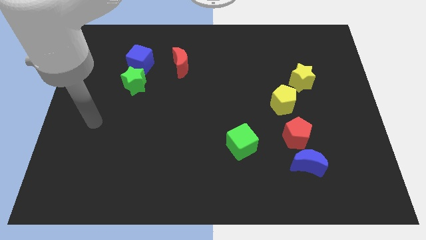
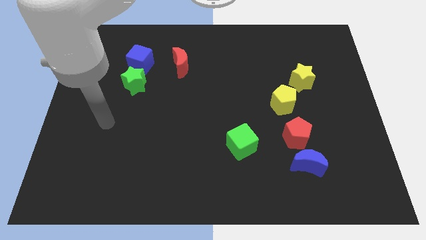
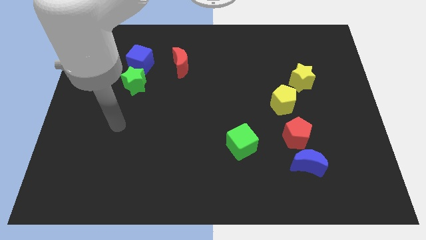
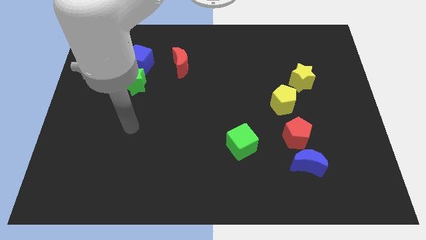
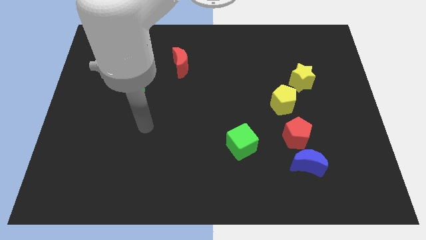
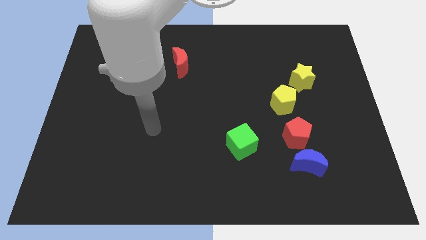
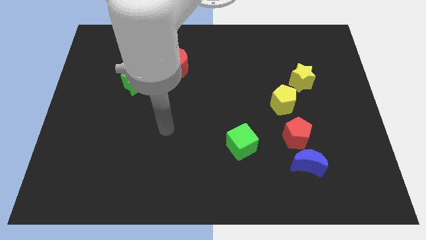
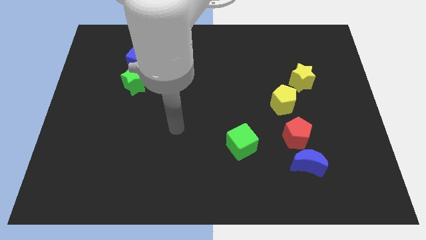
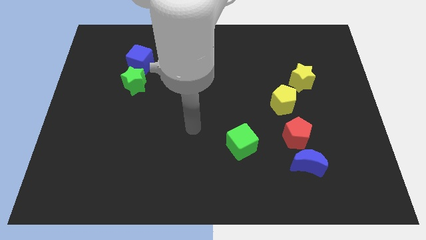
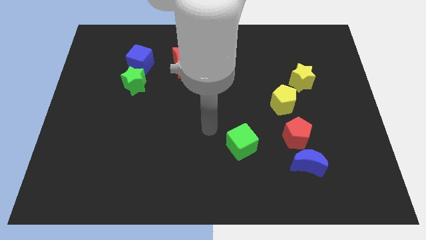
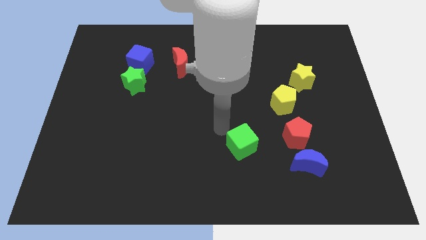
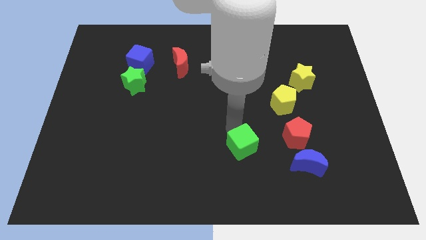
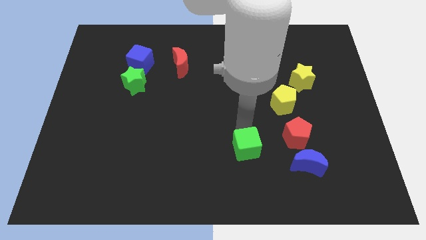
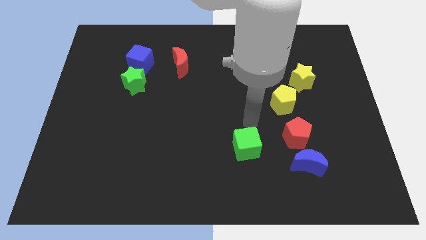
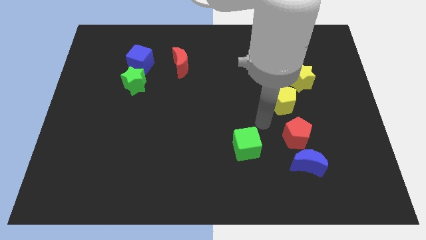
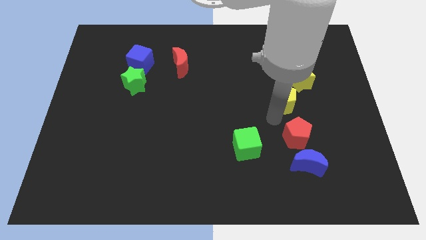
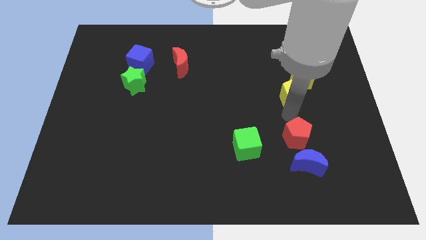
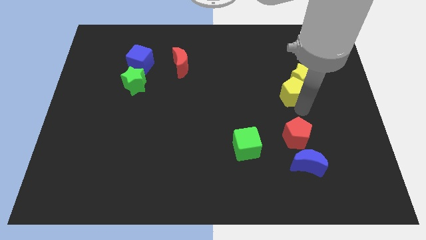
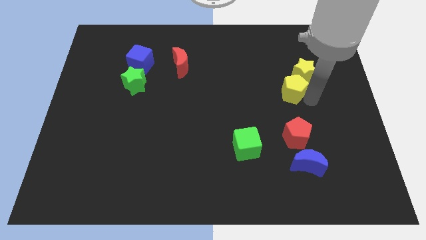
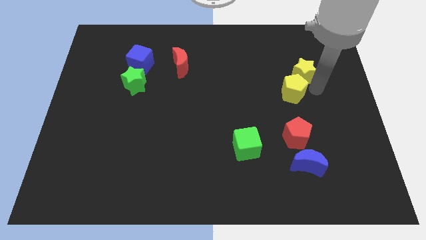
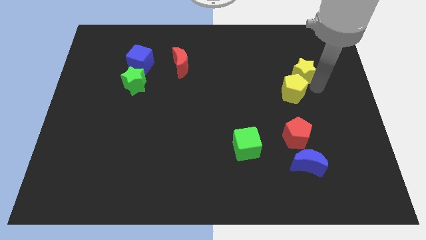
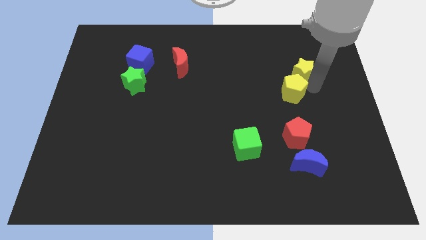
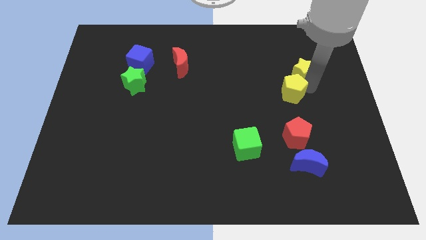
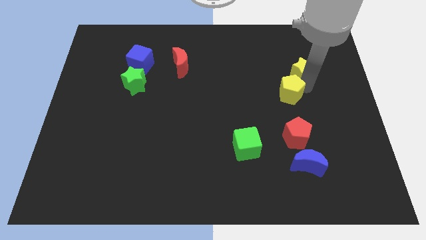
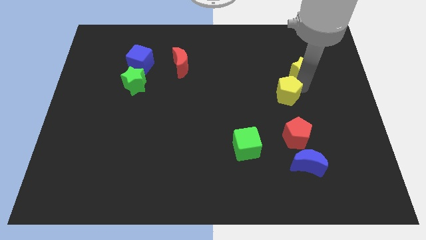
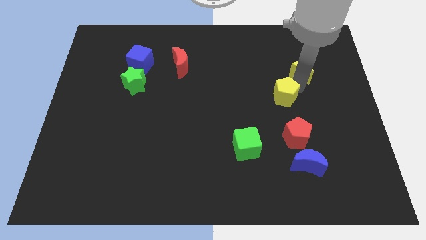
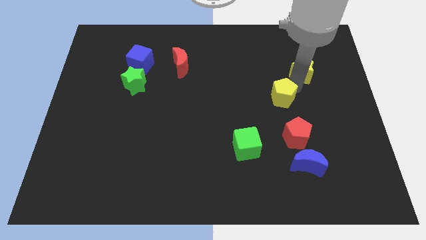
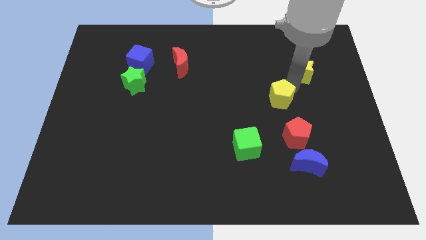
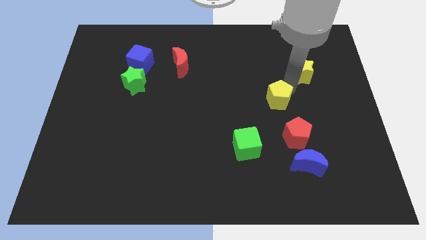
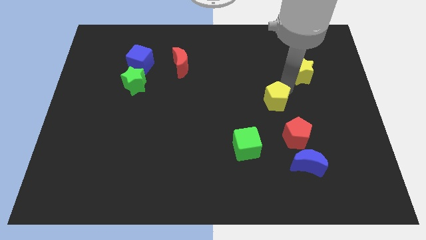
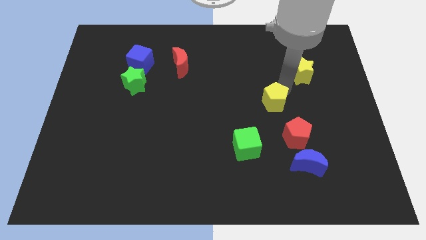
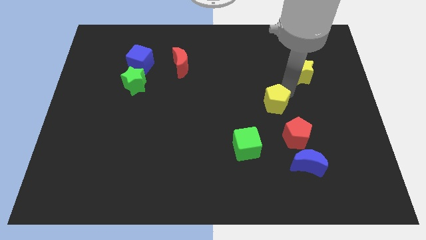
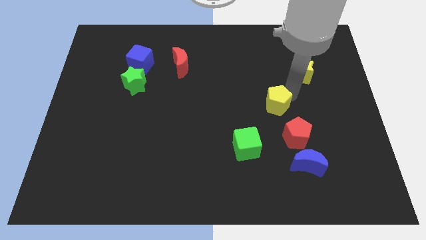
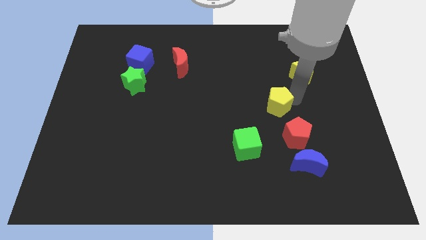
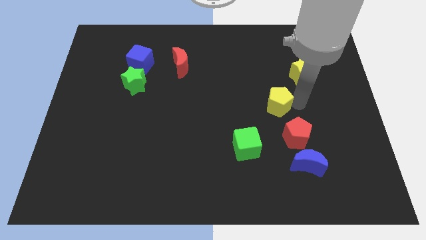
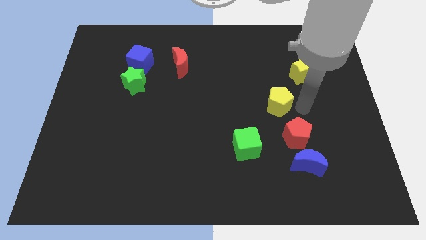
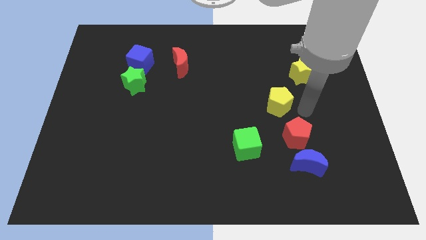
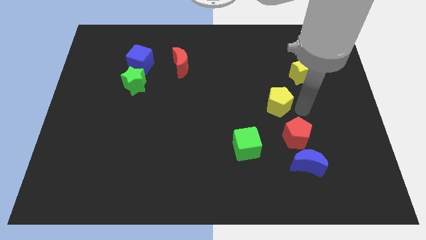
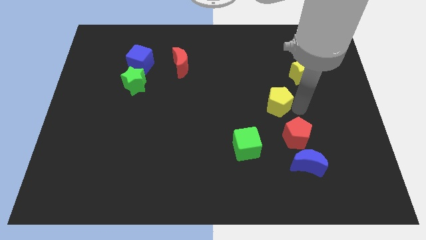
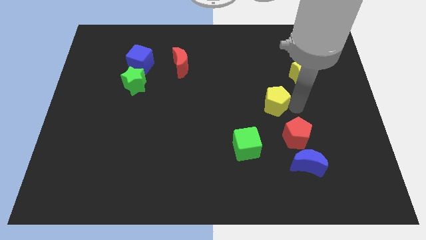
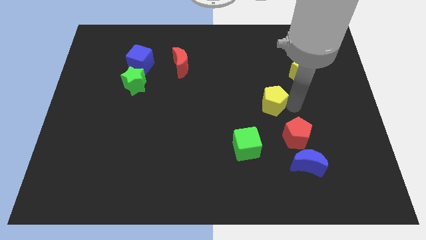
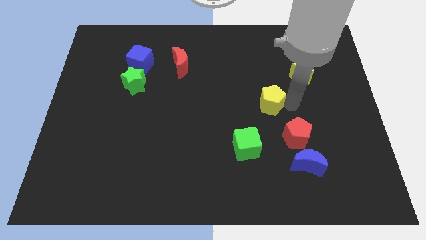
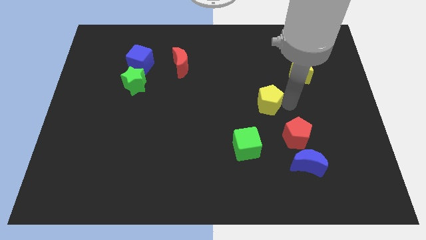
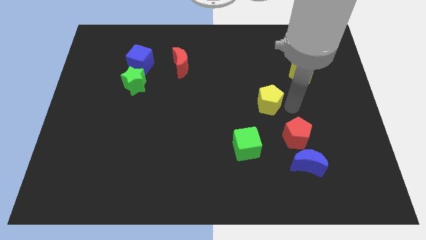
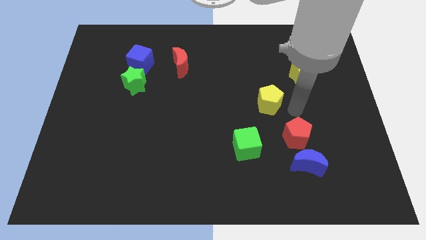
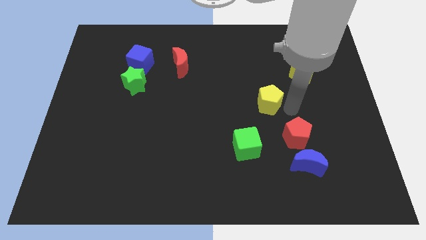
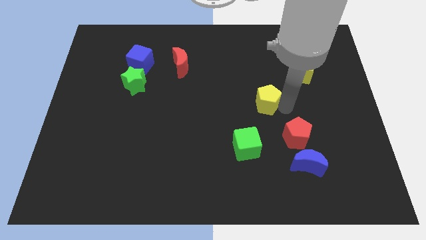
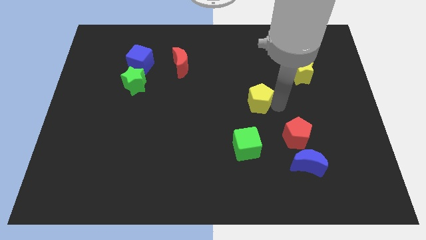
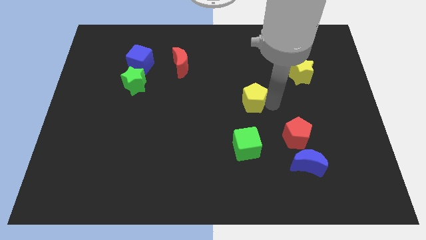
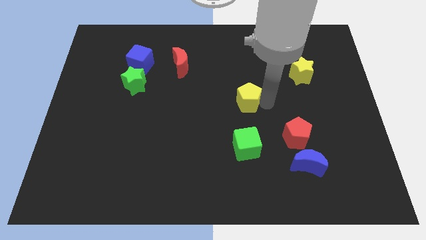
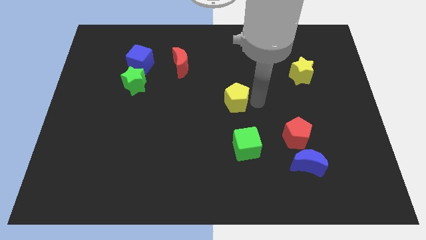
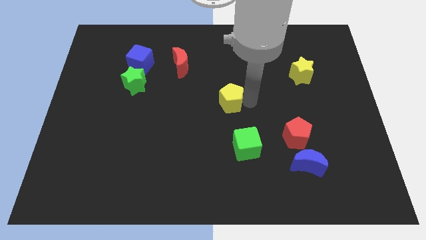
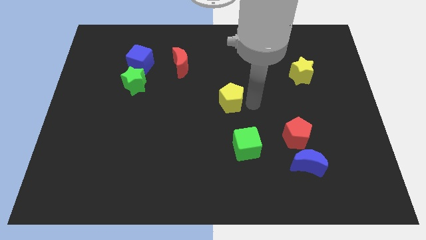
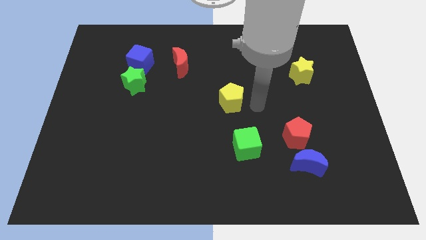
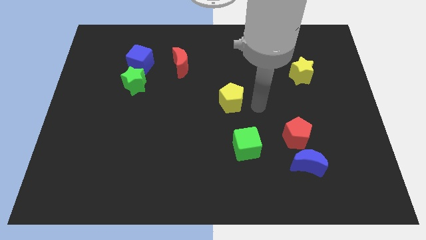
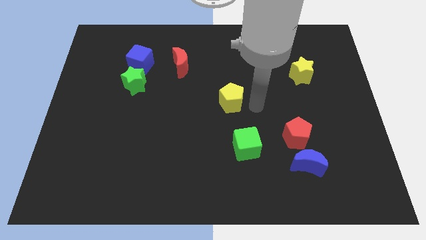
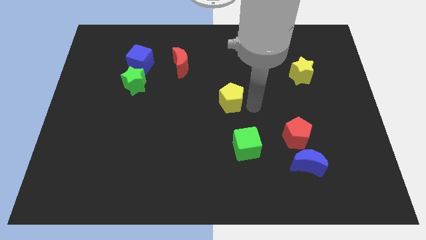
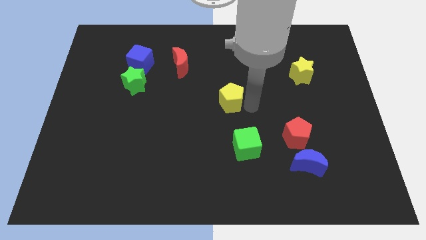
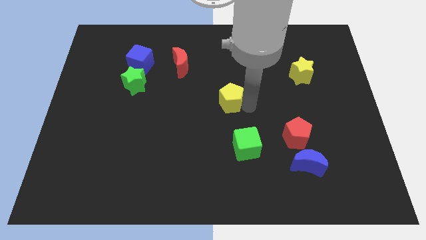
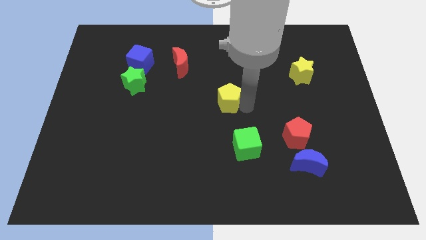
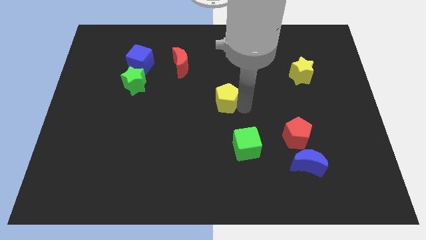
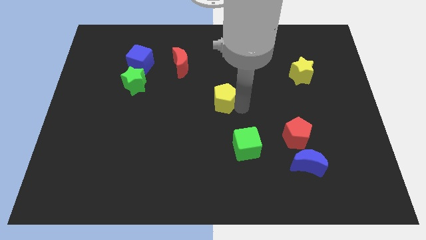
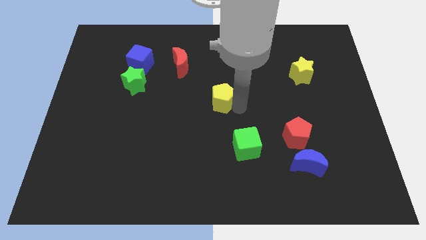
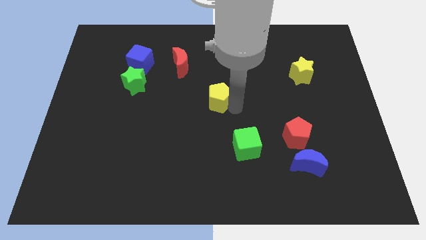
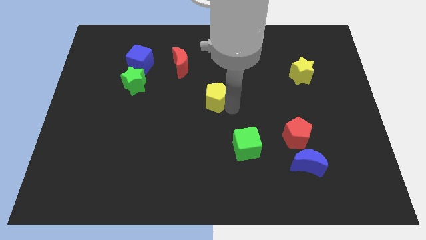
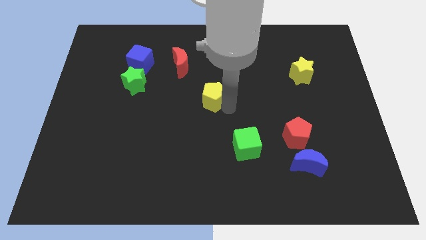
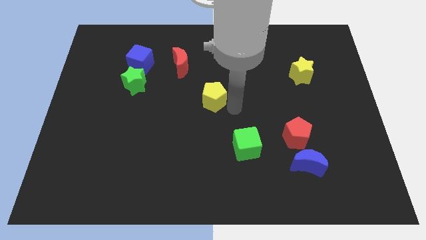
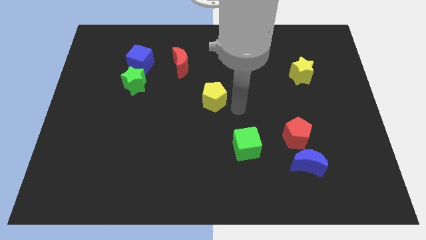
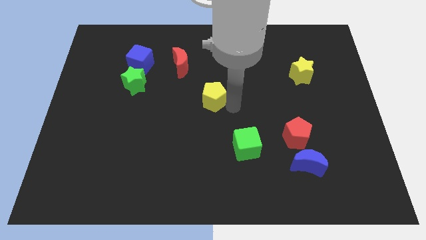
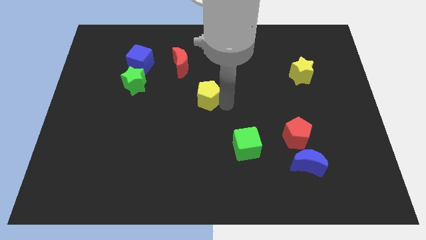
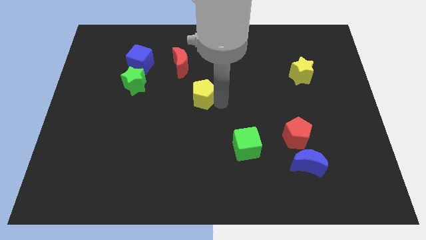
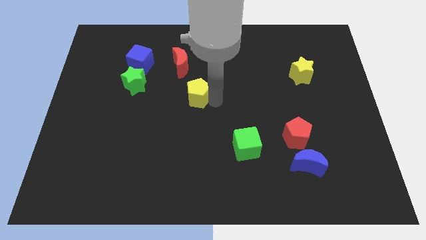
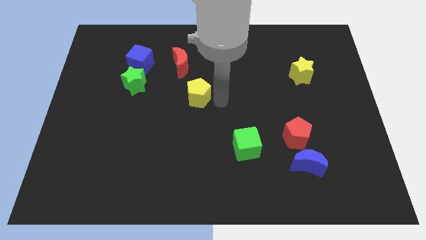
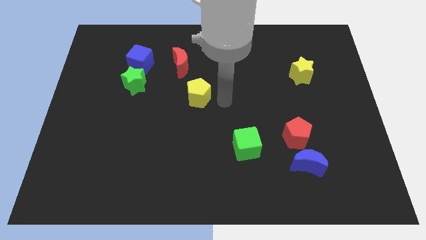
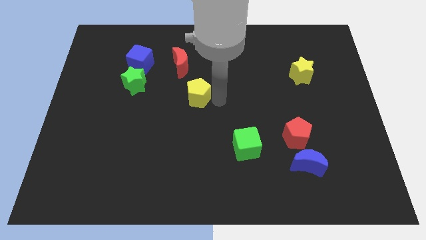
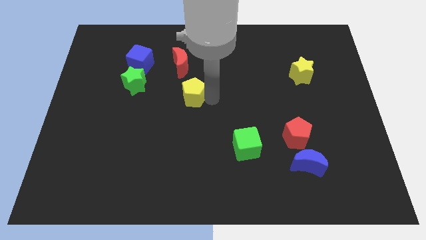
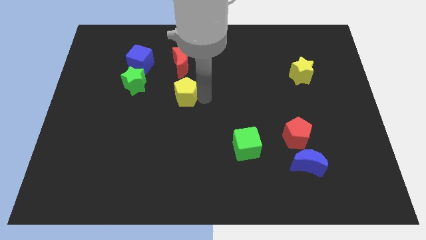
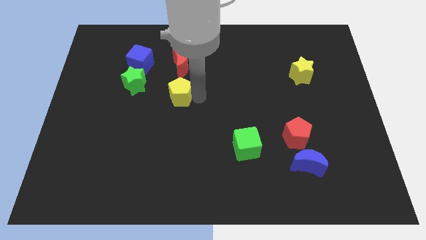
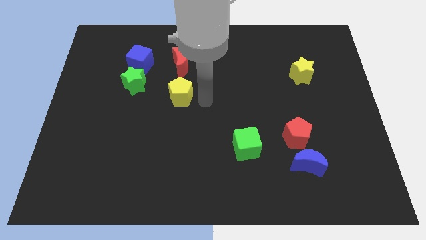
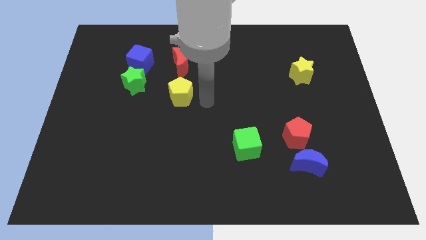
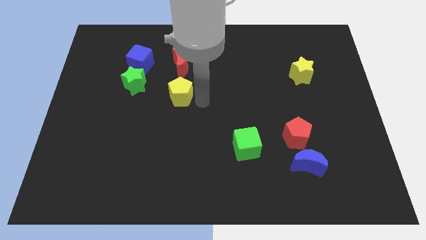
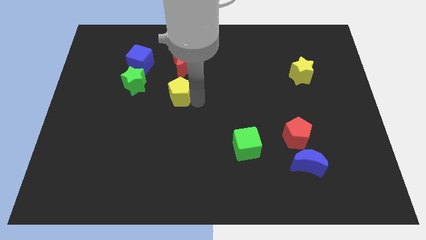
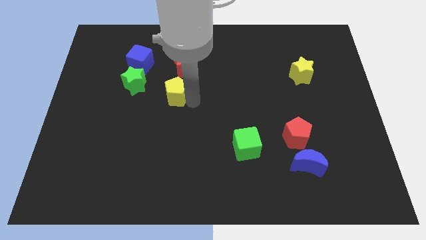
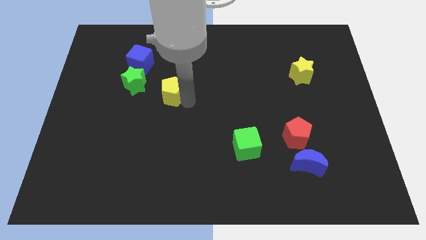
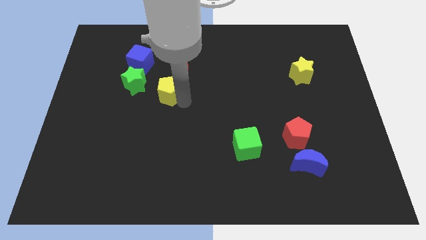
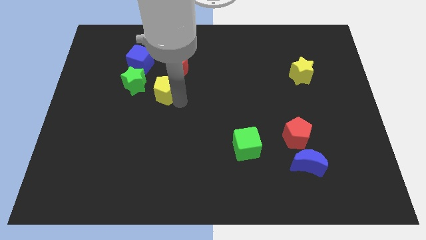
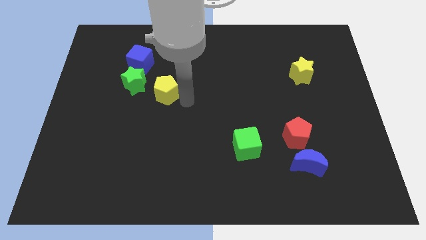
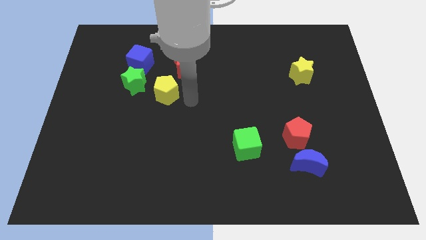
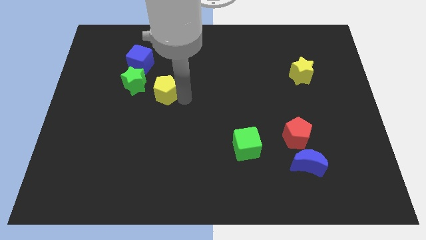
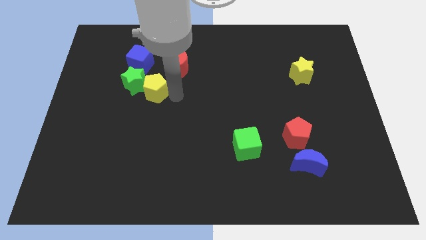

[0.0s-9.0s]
move the yellow pentagon next to the green star
